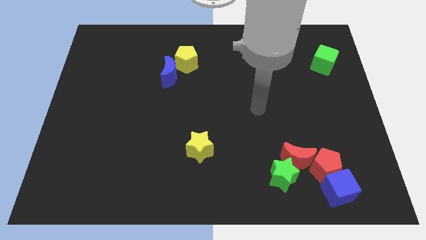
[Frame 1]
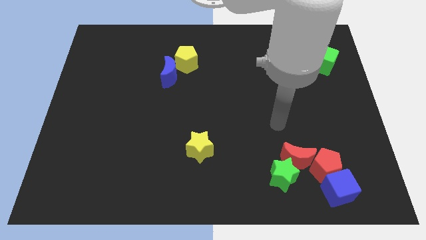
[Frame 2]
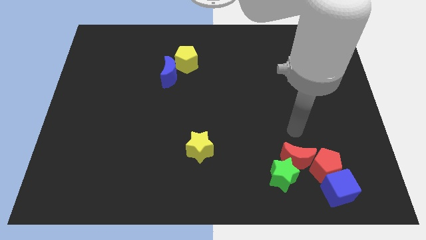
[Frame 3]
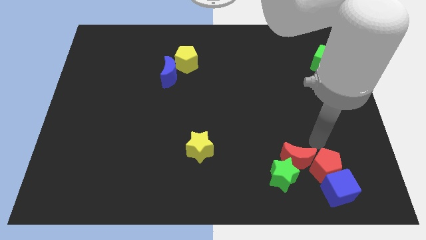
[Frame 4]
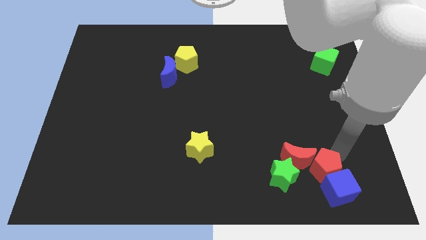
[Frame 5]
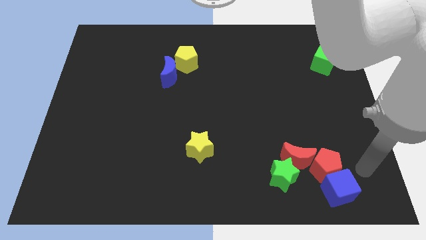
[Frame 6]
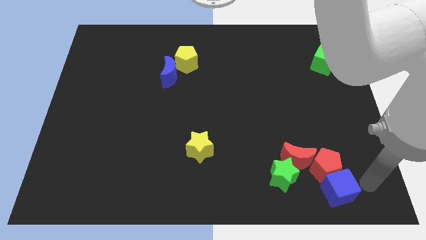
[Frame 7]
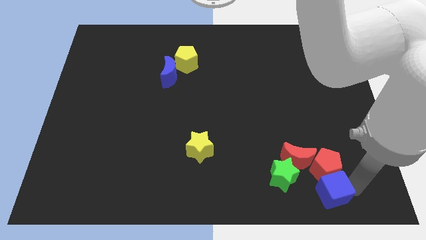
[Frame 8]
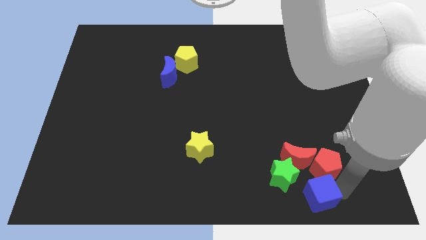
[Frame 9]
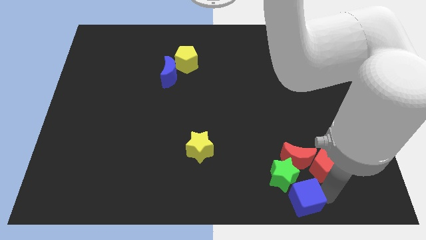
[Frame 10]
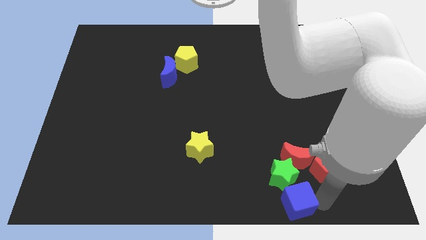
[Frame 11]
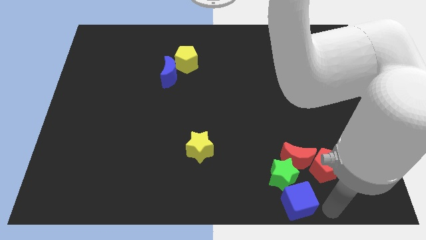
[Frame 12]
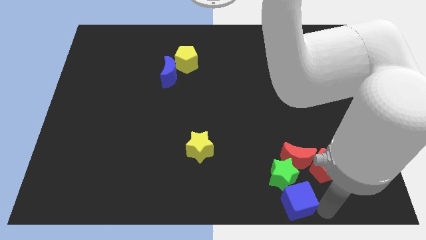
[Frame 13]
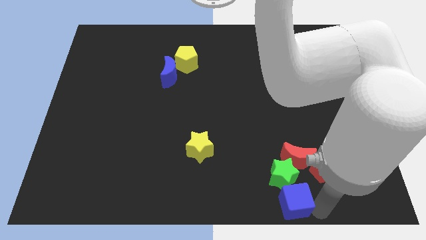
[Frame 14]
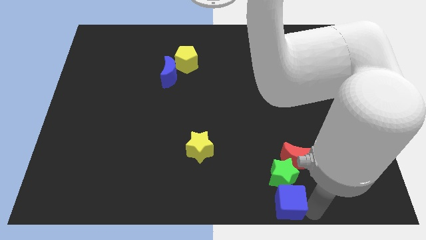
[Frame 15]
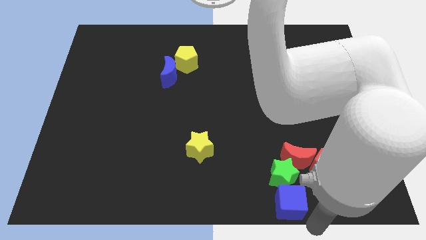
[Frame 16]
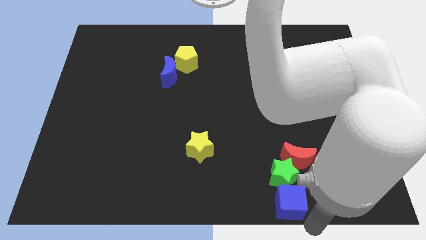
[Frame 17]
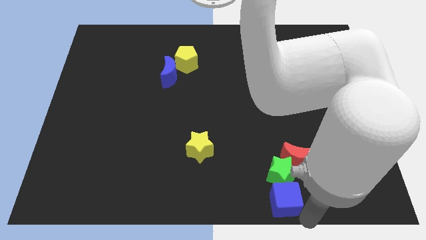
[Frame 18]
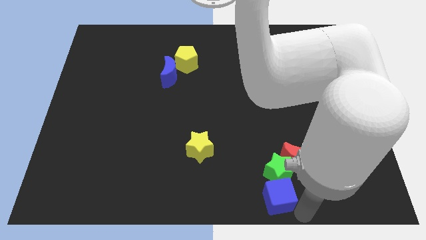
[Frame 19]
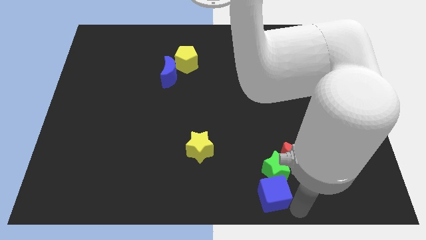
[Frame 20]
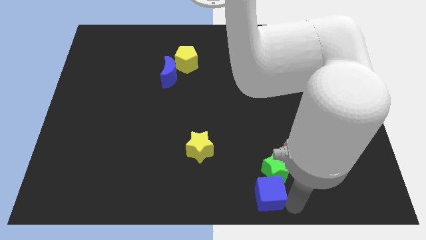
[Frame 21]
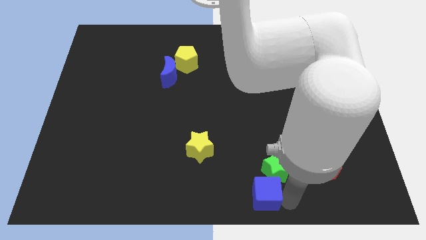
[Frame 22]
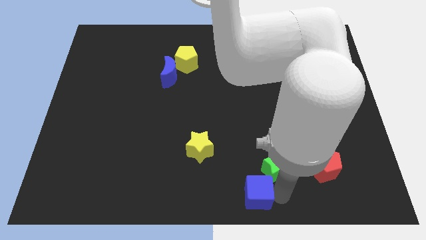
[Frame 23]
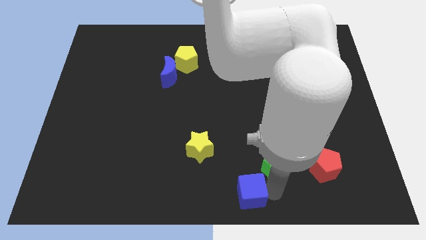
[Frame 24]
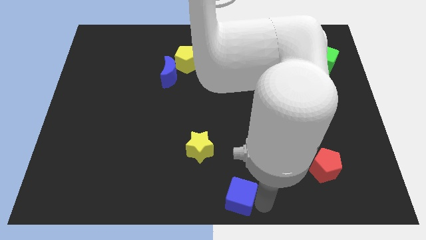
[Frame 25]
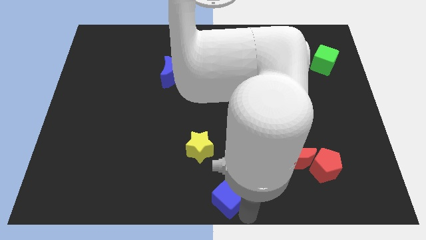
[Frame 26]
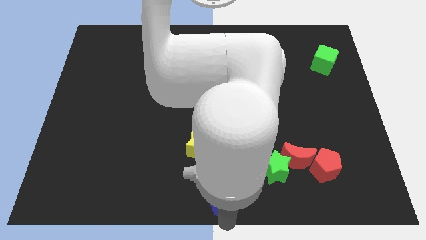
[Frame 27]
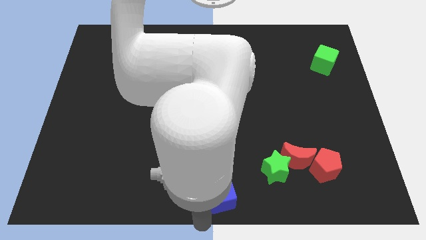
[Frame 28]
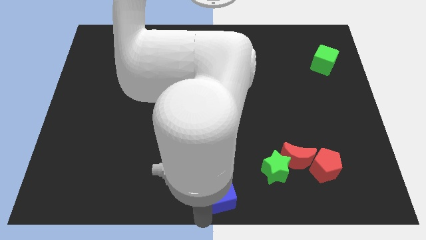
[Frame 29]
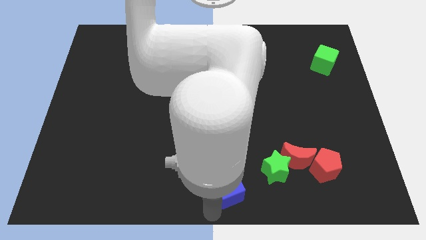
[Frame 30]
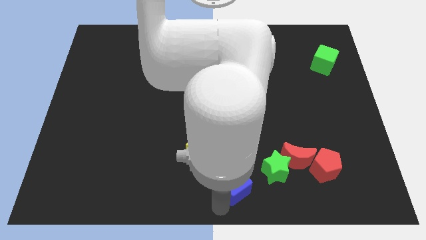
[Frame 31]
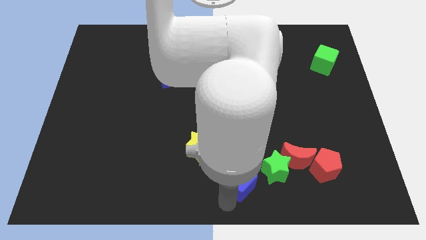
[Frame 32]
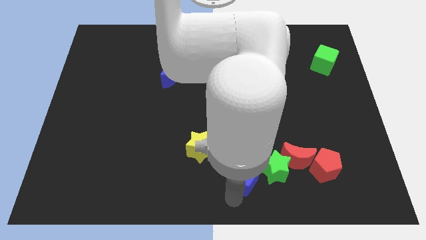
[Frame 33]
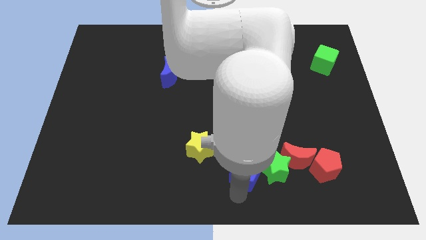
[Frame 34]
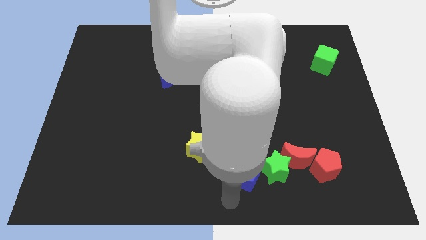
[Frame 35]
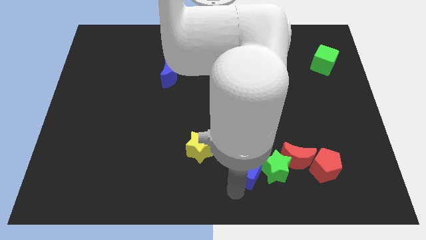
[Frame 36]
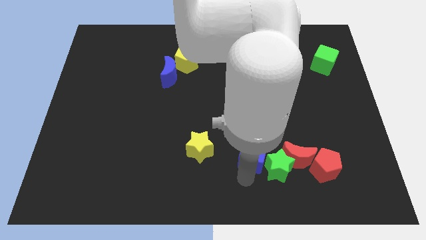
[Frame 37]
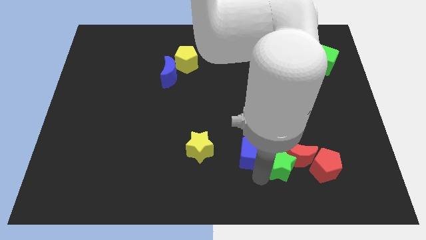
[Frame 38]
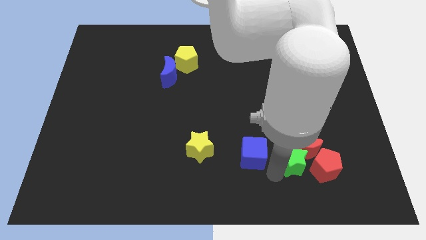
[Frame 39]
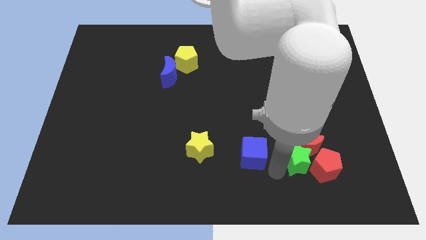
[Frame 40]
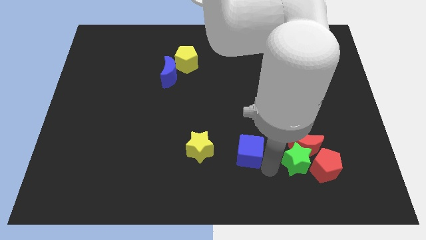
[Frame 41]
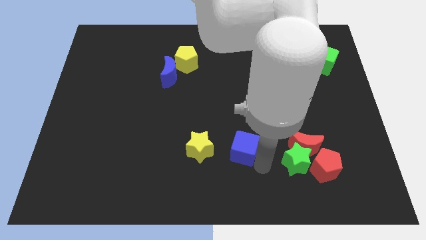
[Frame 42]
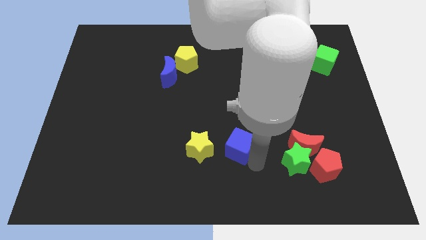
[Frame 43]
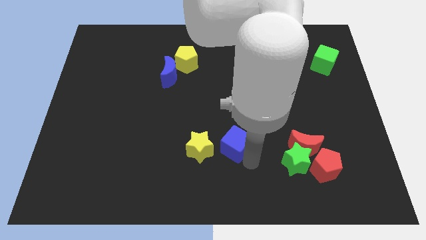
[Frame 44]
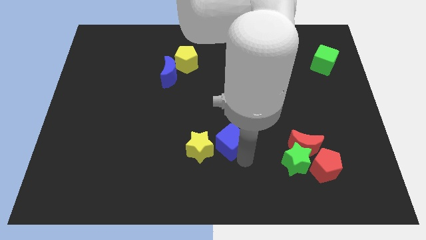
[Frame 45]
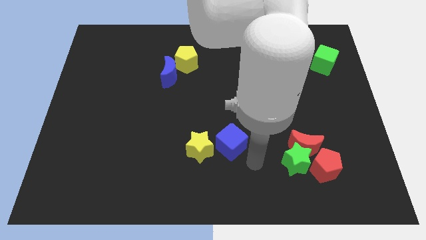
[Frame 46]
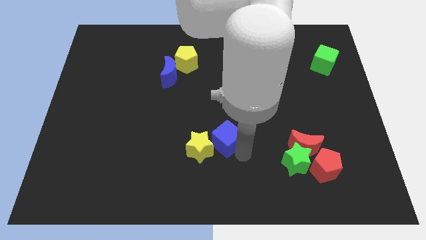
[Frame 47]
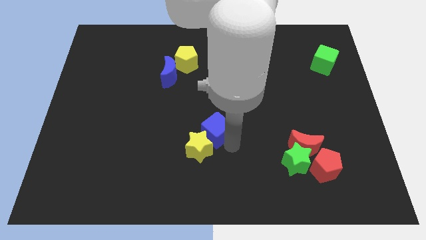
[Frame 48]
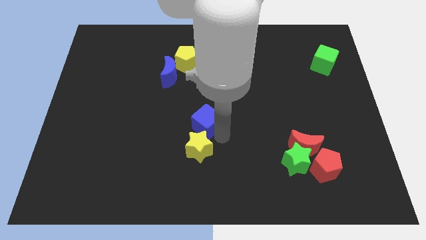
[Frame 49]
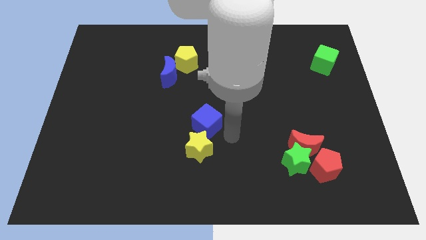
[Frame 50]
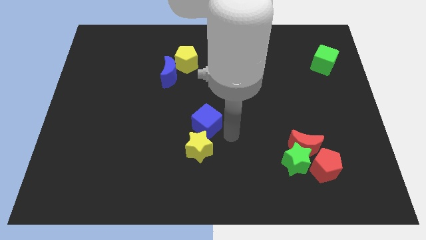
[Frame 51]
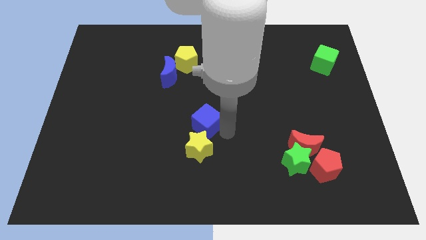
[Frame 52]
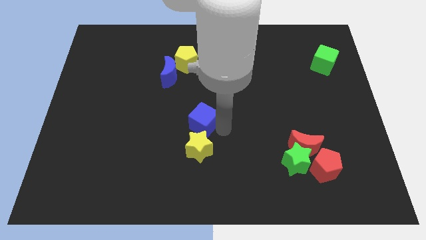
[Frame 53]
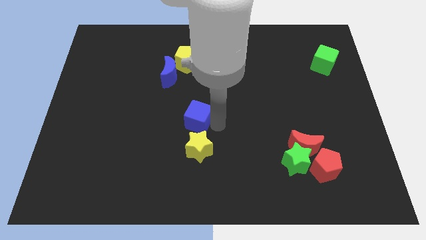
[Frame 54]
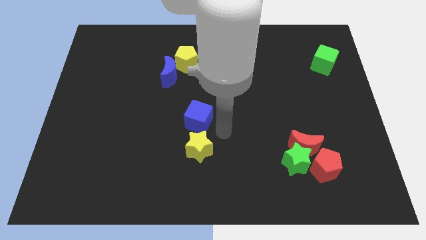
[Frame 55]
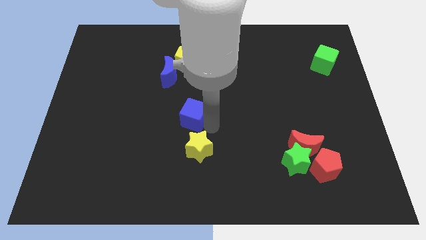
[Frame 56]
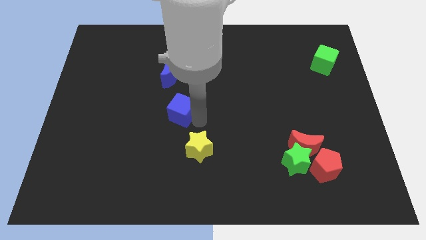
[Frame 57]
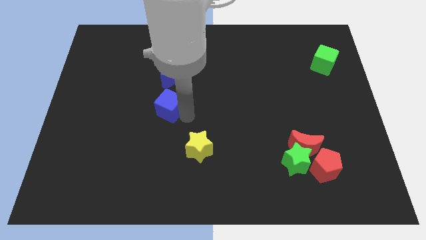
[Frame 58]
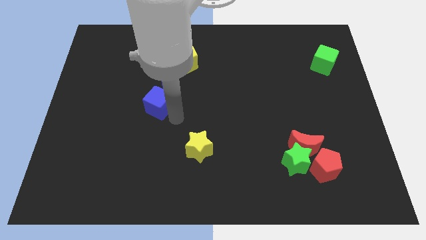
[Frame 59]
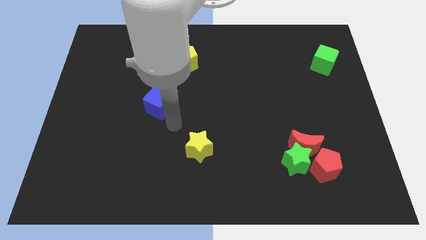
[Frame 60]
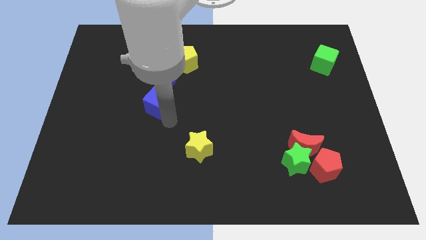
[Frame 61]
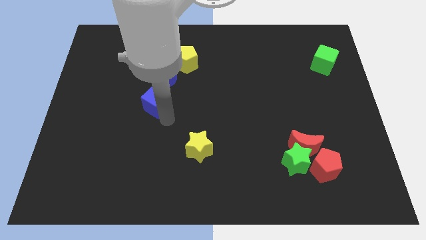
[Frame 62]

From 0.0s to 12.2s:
put the blue cube to the bottom left of the blue moon

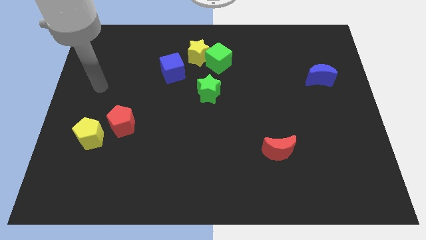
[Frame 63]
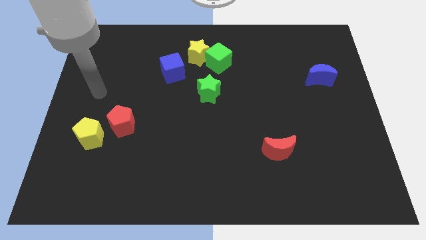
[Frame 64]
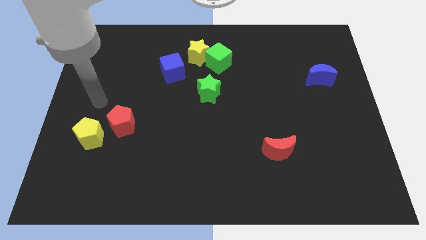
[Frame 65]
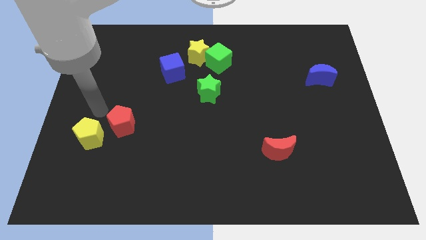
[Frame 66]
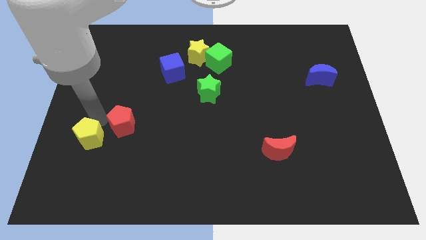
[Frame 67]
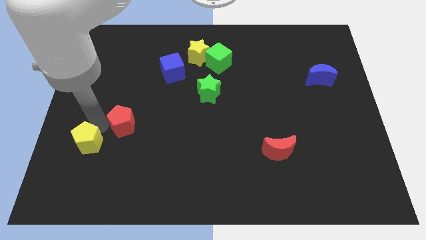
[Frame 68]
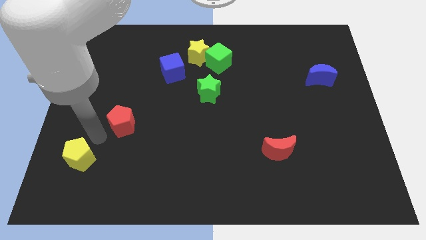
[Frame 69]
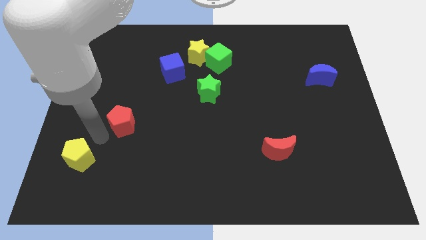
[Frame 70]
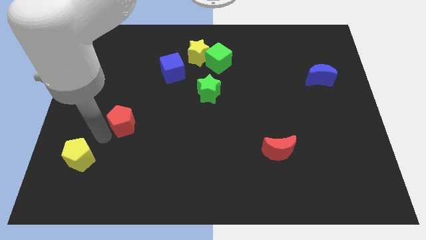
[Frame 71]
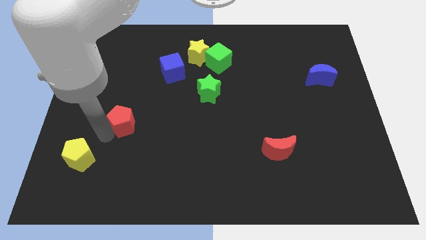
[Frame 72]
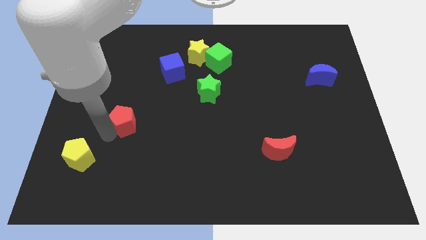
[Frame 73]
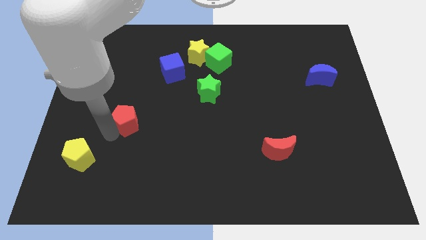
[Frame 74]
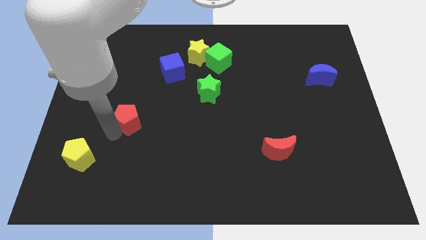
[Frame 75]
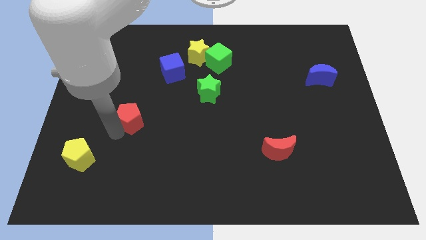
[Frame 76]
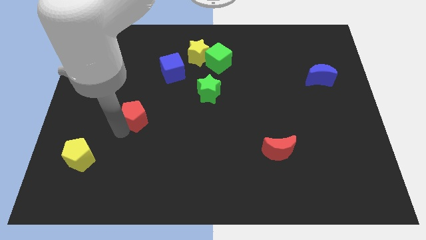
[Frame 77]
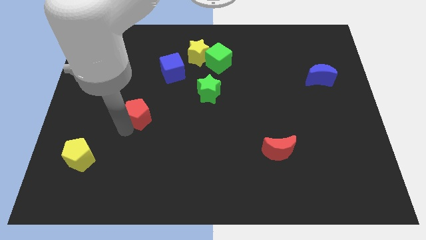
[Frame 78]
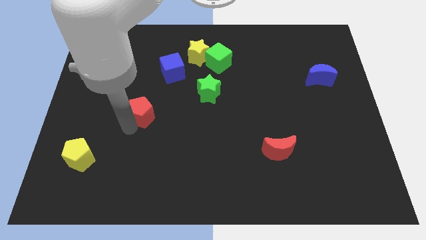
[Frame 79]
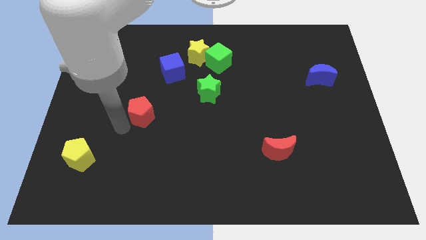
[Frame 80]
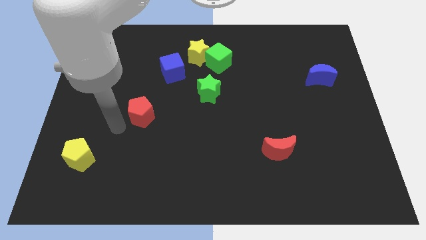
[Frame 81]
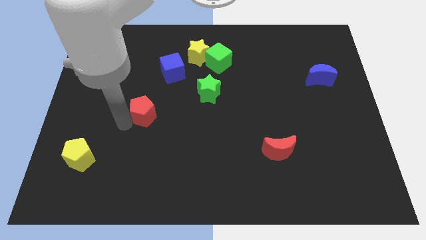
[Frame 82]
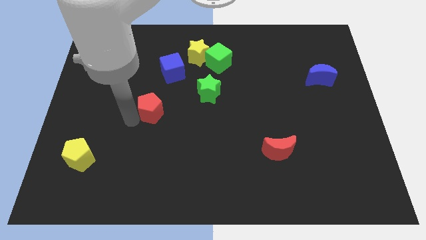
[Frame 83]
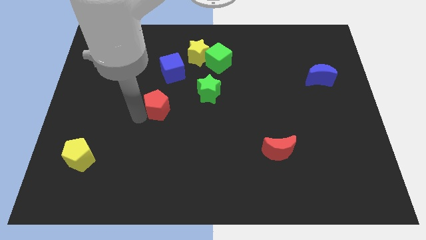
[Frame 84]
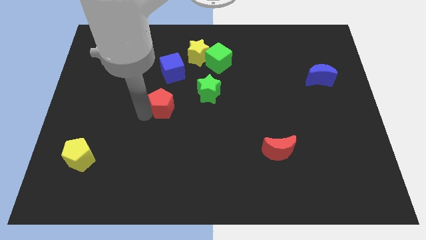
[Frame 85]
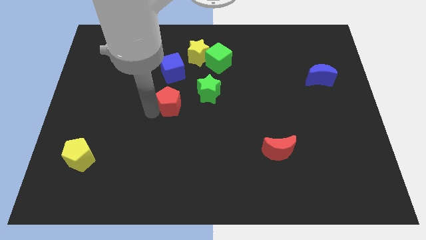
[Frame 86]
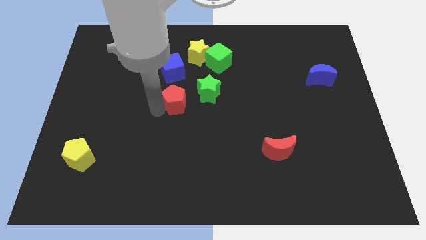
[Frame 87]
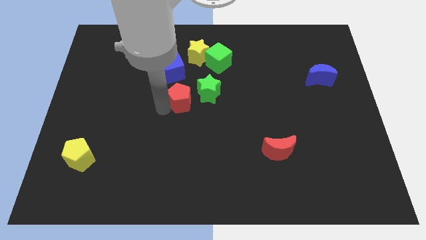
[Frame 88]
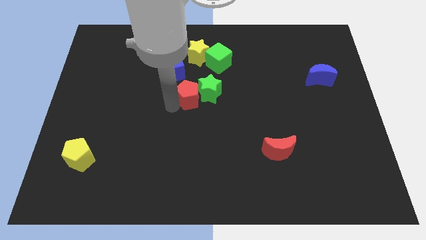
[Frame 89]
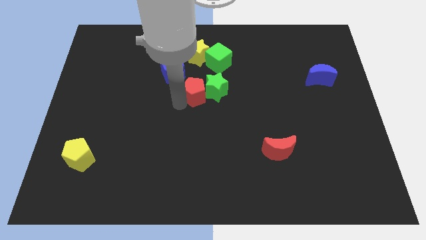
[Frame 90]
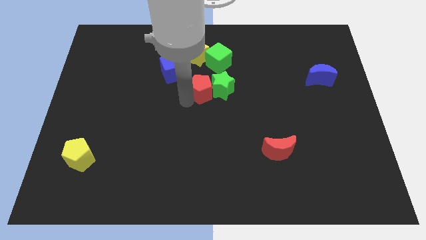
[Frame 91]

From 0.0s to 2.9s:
put the red pentagon to the bottom left side of the green cube
